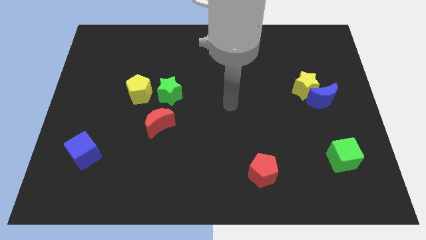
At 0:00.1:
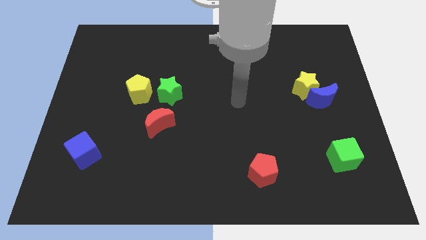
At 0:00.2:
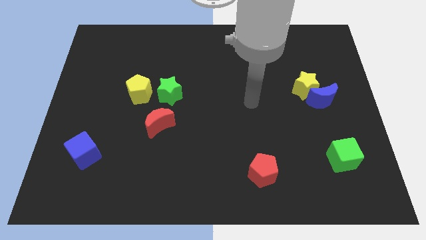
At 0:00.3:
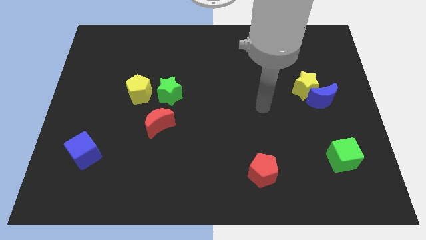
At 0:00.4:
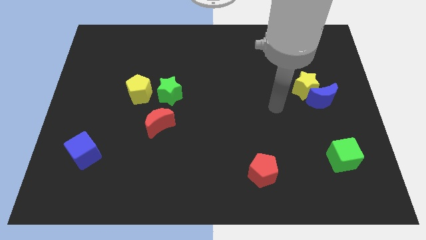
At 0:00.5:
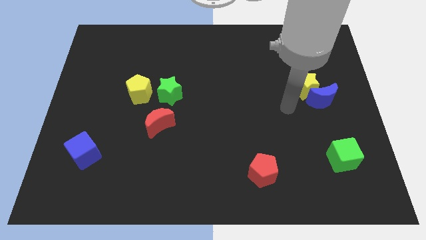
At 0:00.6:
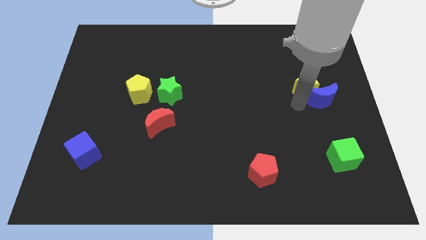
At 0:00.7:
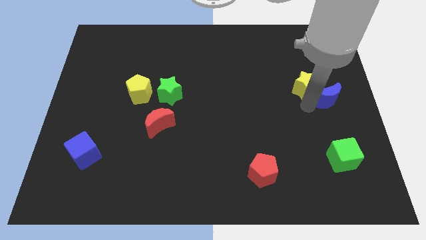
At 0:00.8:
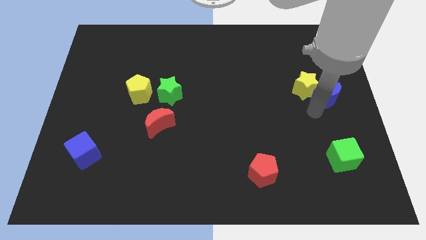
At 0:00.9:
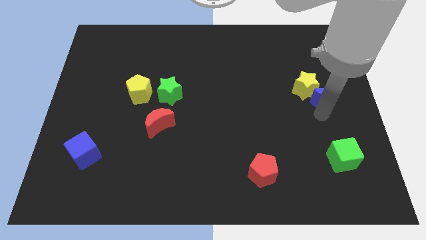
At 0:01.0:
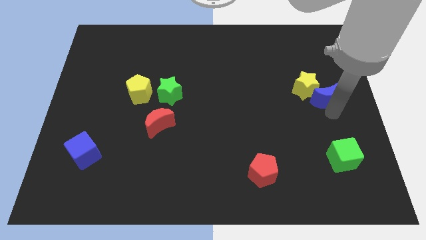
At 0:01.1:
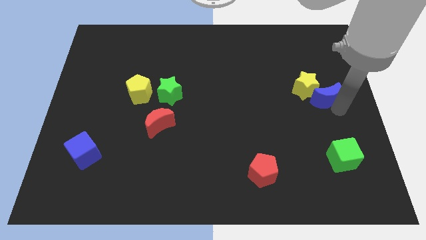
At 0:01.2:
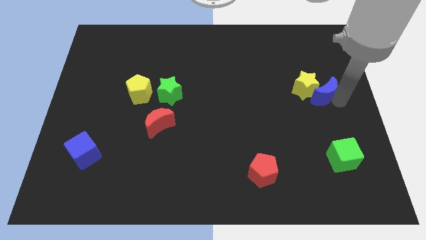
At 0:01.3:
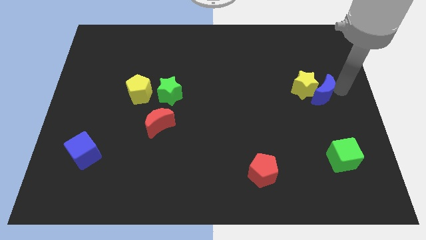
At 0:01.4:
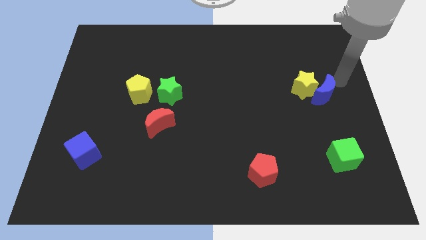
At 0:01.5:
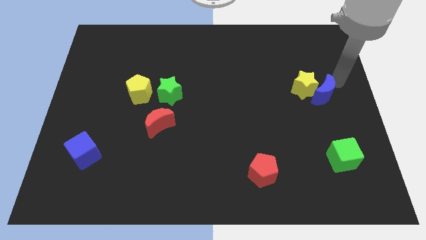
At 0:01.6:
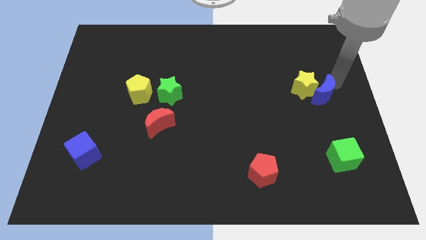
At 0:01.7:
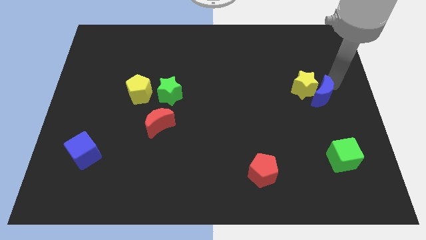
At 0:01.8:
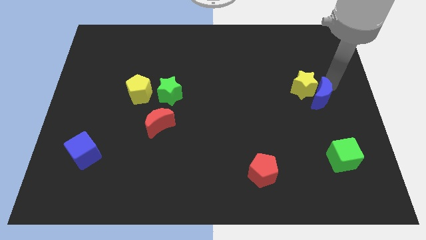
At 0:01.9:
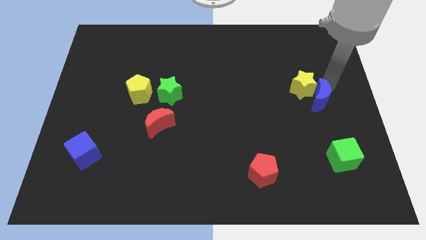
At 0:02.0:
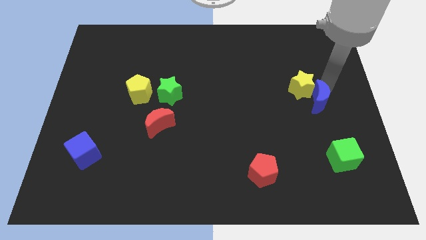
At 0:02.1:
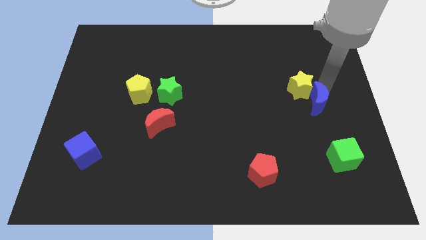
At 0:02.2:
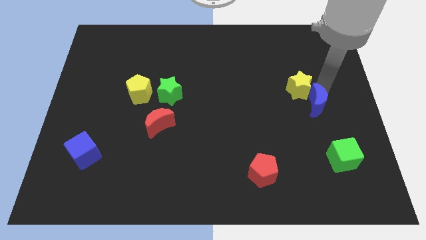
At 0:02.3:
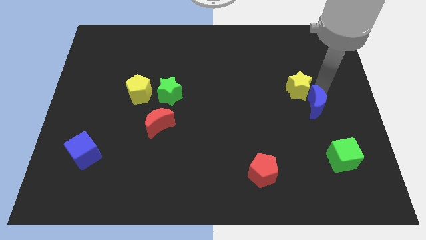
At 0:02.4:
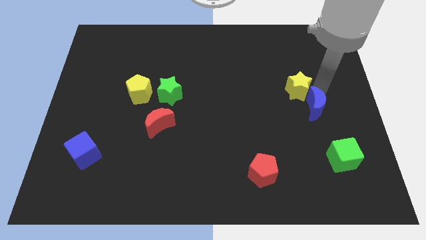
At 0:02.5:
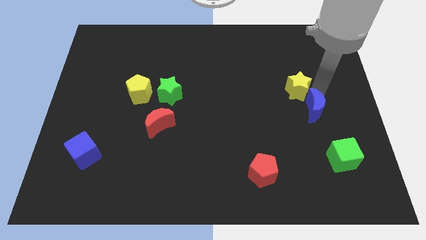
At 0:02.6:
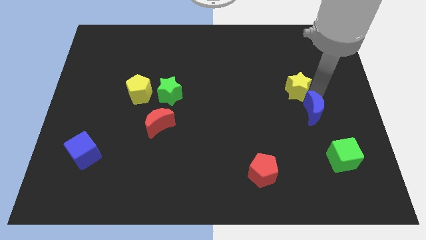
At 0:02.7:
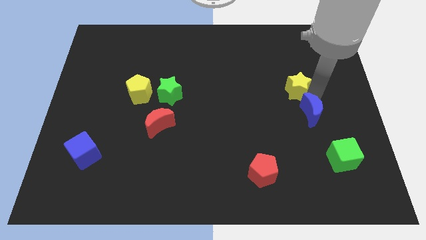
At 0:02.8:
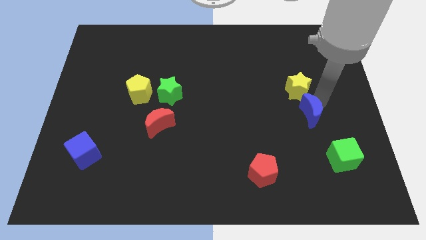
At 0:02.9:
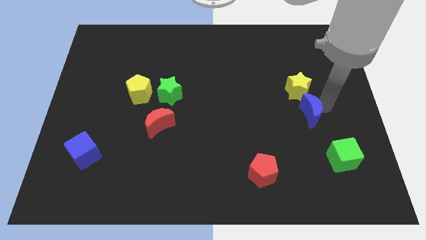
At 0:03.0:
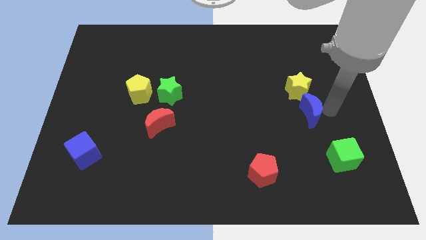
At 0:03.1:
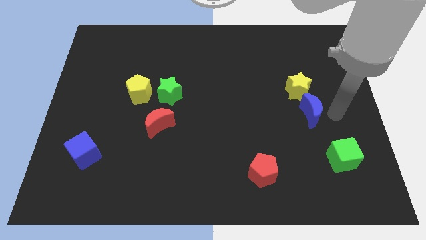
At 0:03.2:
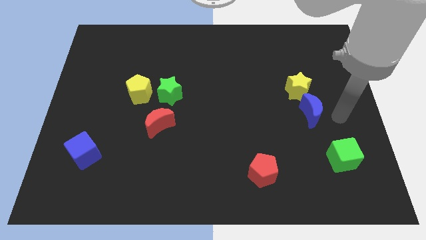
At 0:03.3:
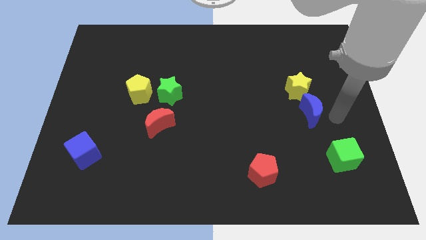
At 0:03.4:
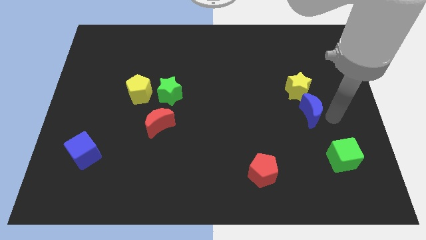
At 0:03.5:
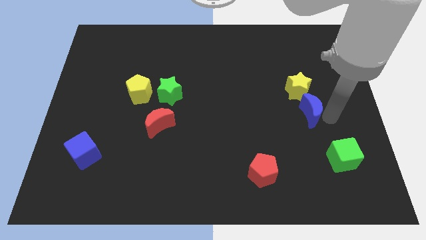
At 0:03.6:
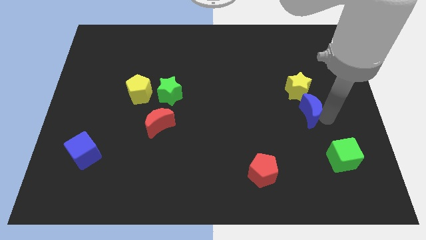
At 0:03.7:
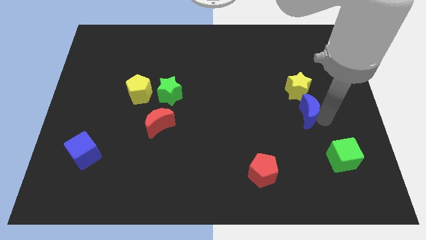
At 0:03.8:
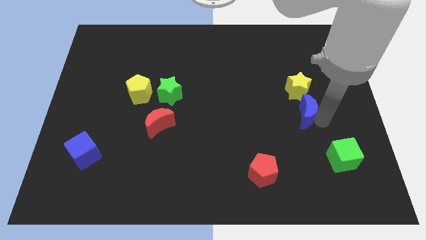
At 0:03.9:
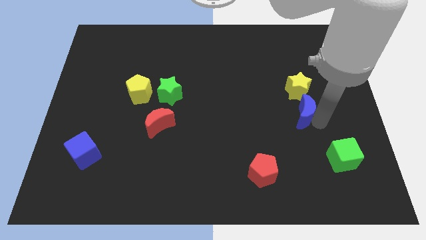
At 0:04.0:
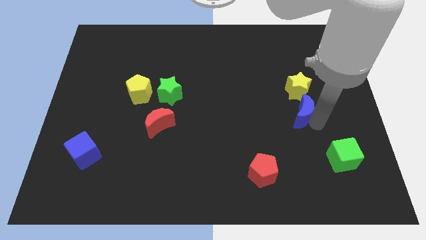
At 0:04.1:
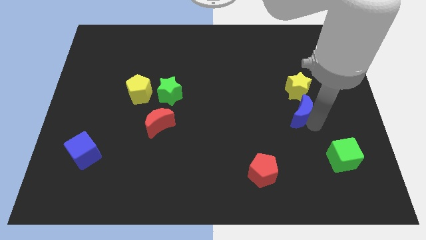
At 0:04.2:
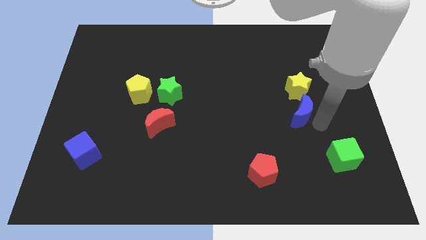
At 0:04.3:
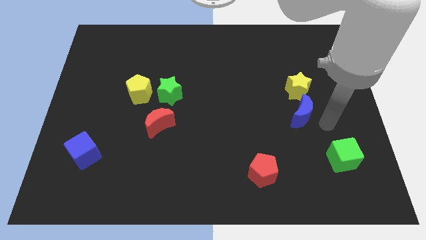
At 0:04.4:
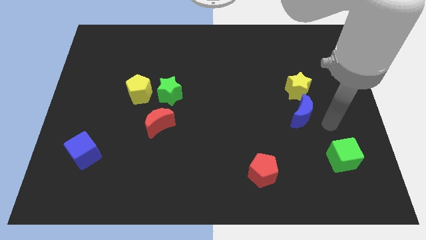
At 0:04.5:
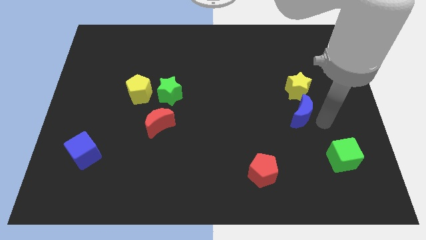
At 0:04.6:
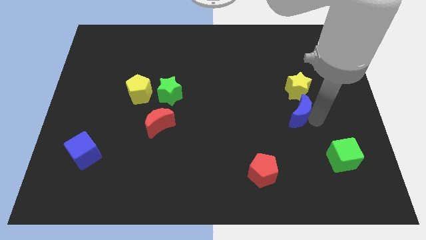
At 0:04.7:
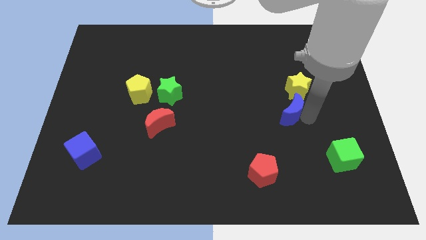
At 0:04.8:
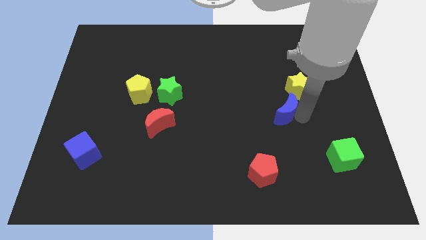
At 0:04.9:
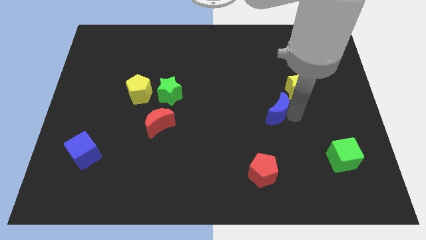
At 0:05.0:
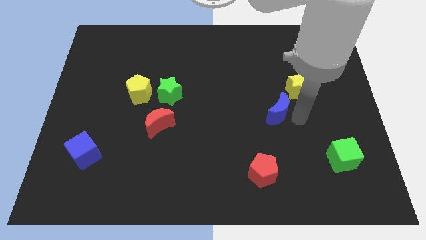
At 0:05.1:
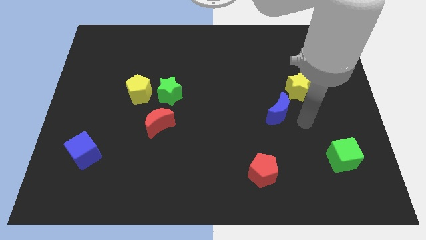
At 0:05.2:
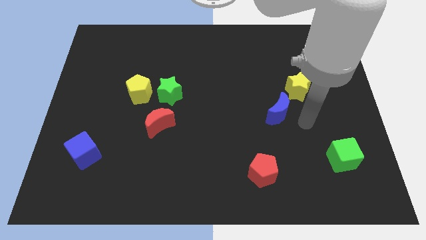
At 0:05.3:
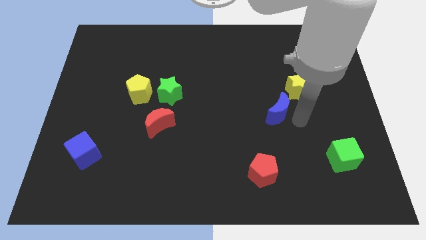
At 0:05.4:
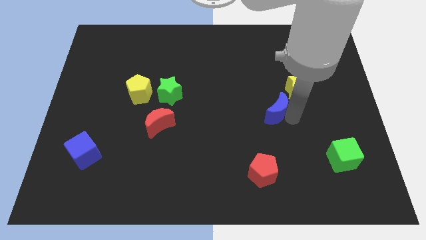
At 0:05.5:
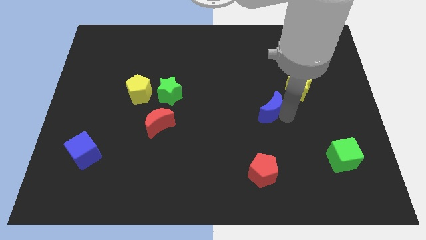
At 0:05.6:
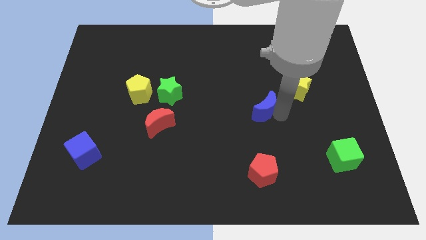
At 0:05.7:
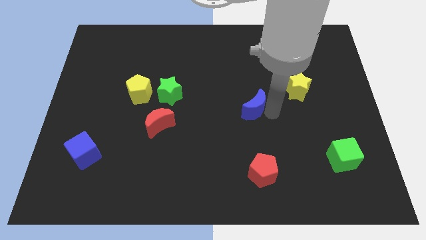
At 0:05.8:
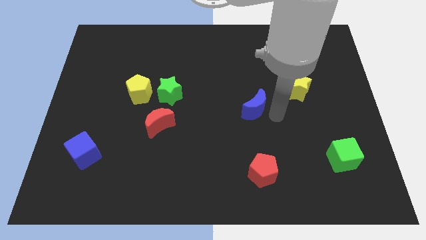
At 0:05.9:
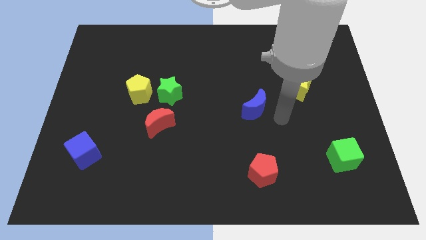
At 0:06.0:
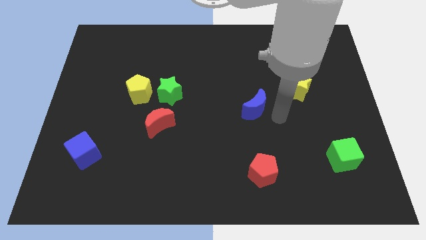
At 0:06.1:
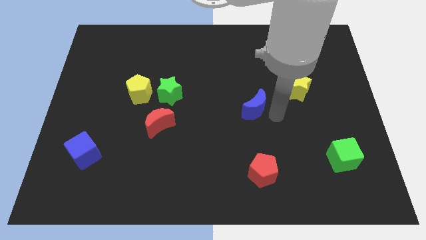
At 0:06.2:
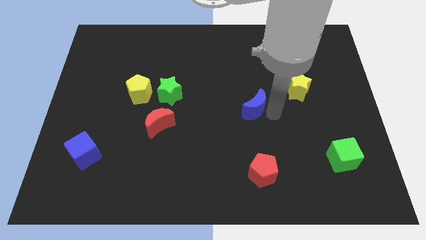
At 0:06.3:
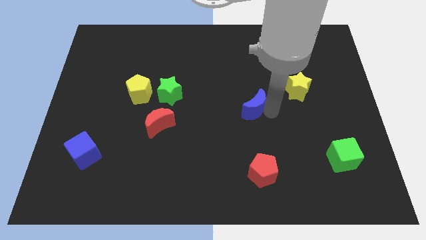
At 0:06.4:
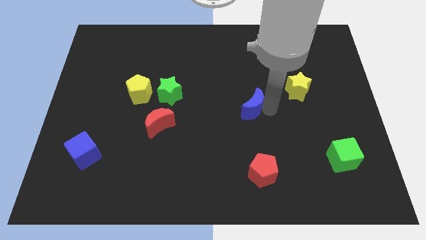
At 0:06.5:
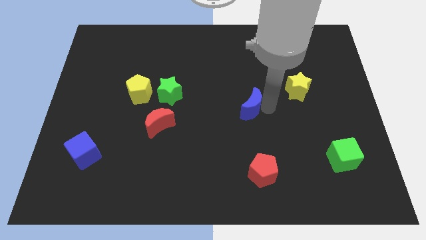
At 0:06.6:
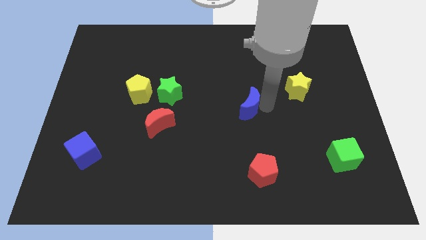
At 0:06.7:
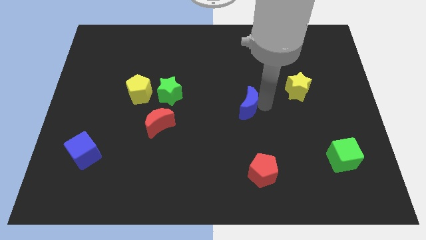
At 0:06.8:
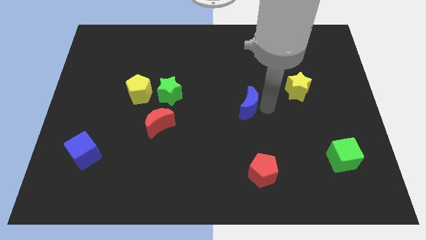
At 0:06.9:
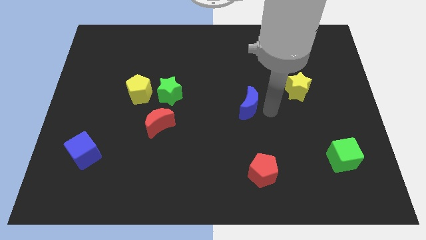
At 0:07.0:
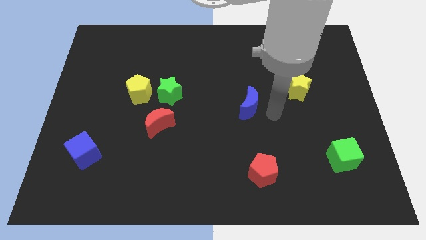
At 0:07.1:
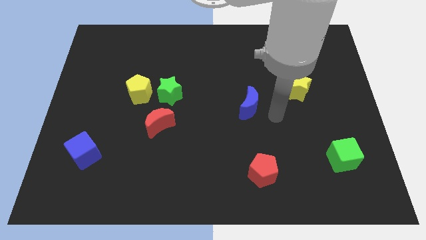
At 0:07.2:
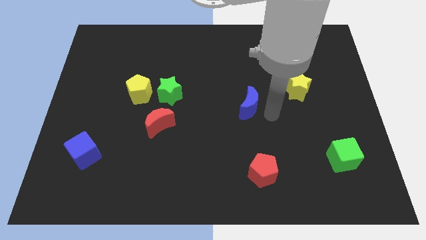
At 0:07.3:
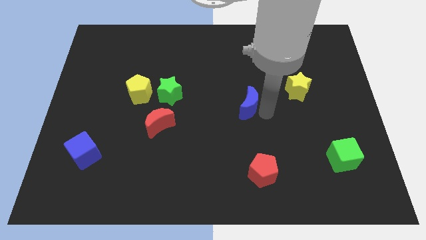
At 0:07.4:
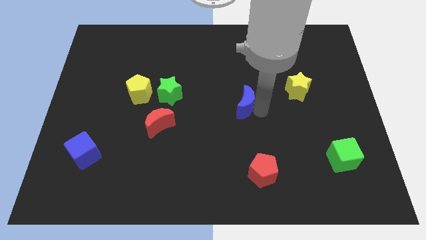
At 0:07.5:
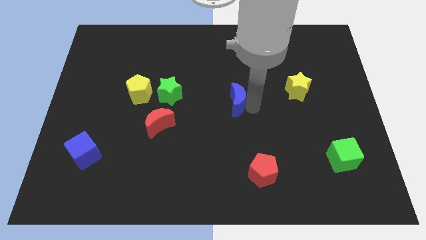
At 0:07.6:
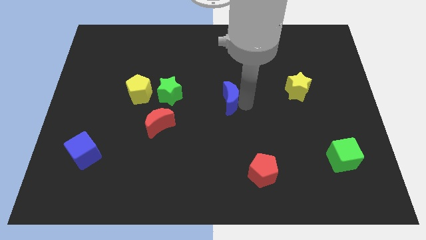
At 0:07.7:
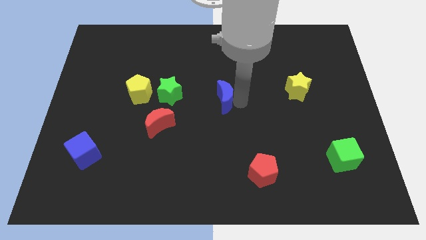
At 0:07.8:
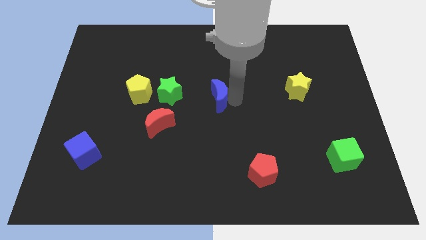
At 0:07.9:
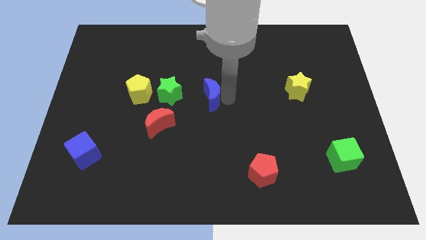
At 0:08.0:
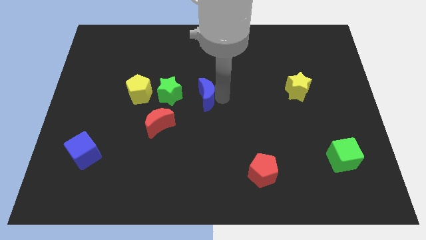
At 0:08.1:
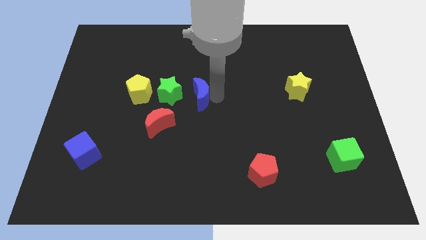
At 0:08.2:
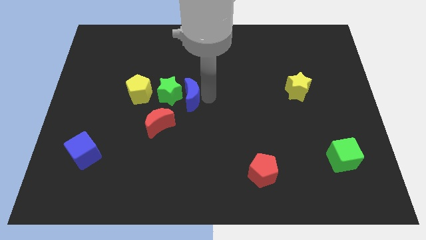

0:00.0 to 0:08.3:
move the blue moon to the green star
